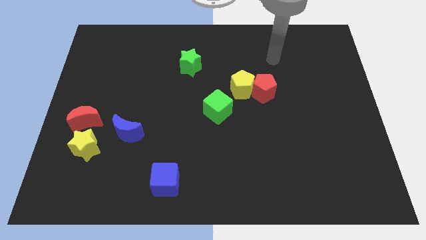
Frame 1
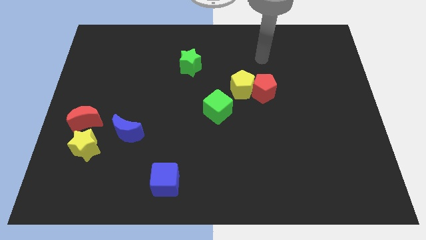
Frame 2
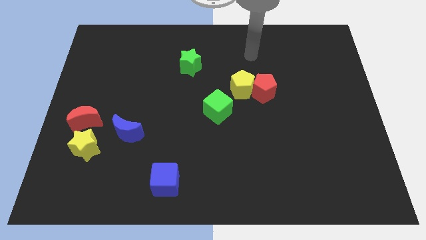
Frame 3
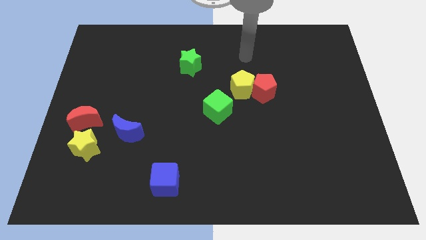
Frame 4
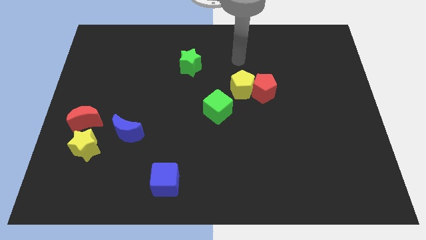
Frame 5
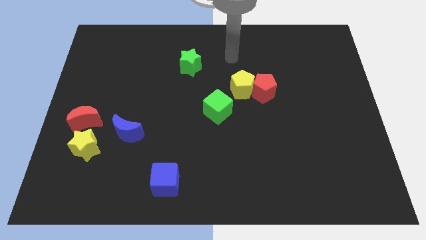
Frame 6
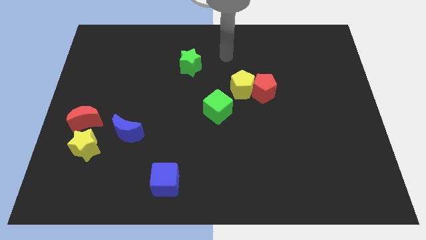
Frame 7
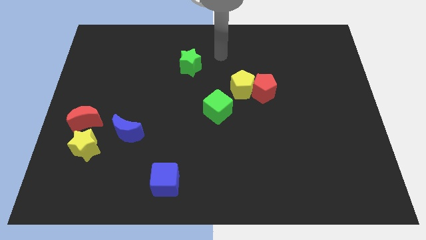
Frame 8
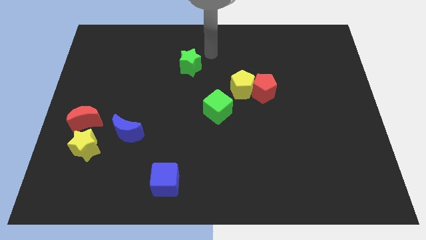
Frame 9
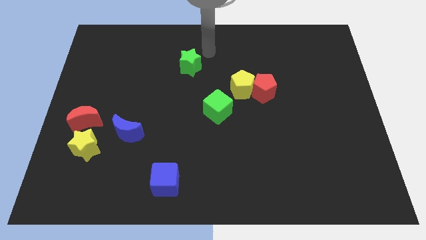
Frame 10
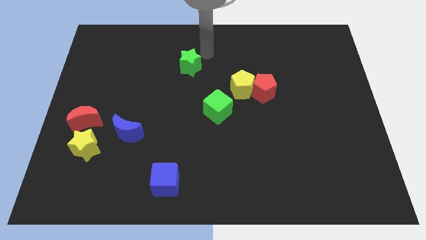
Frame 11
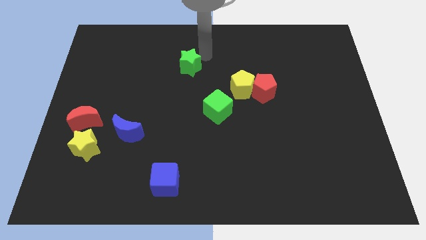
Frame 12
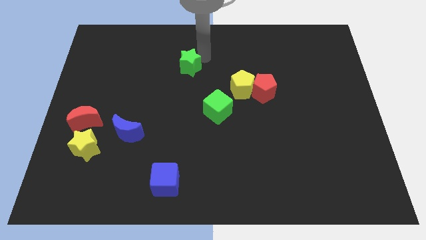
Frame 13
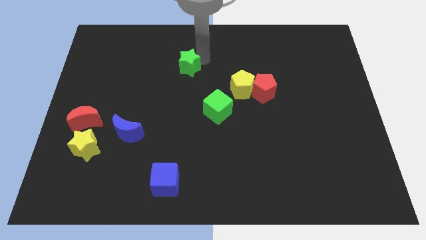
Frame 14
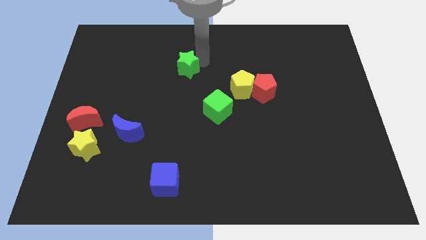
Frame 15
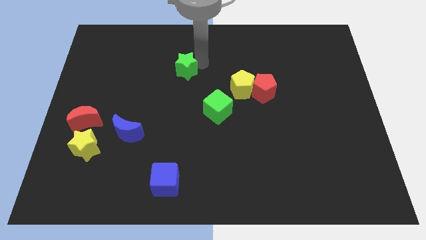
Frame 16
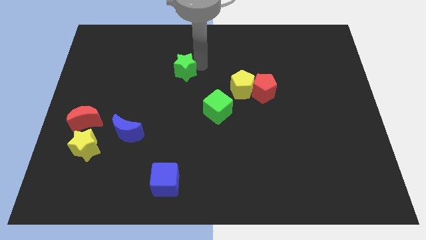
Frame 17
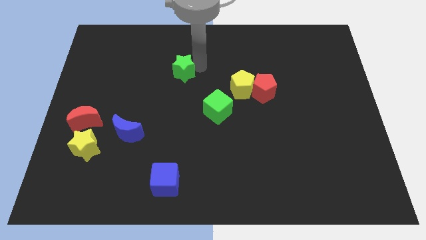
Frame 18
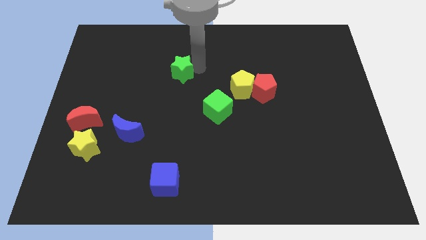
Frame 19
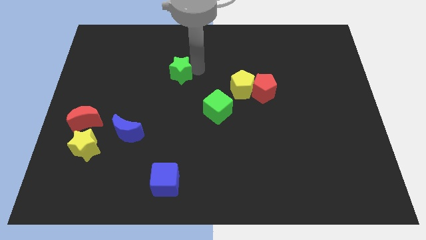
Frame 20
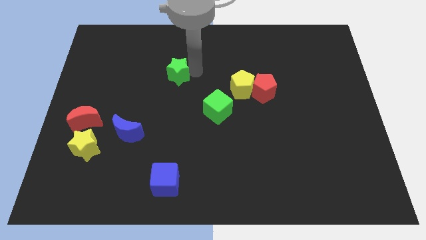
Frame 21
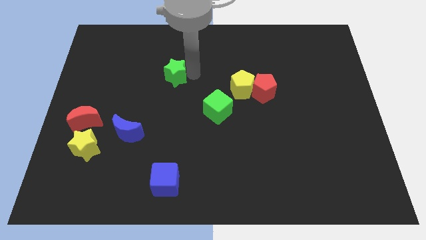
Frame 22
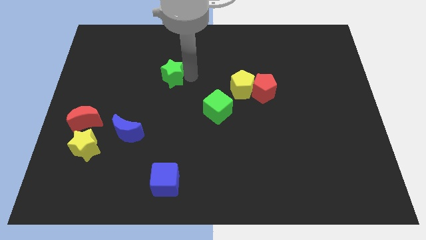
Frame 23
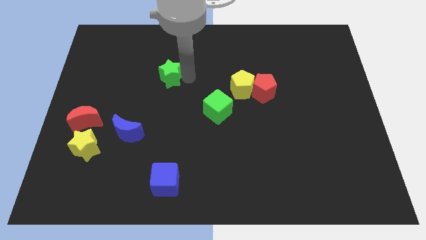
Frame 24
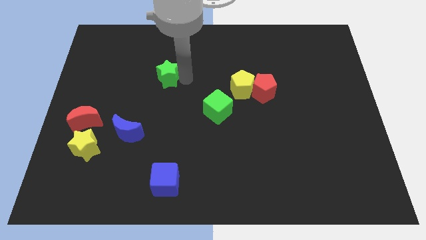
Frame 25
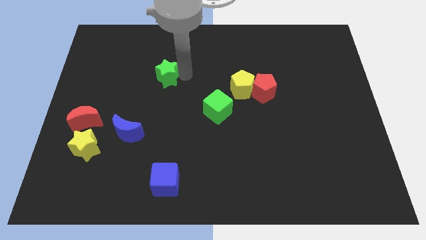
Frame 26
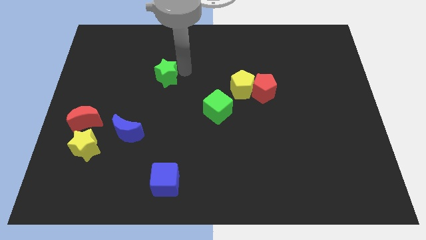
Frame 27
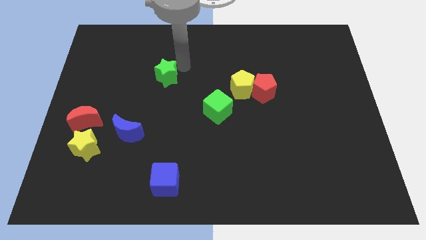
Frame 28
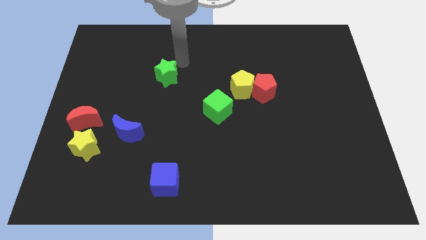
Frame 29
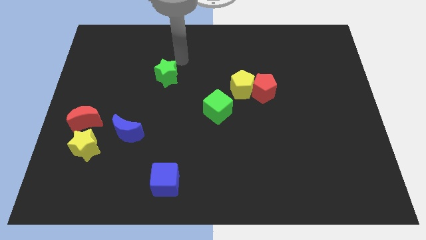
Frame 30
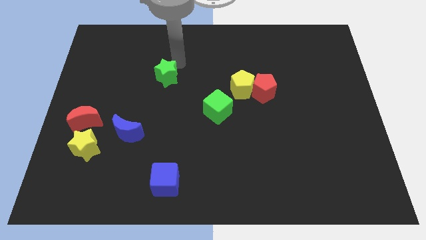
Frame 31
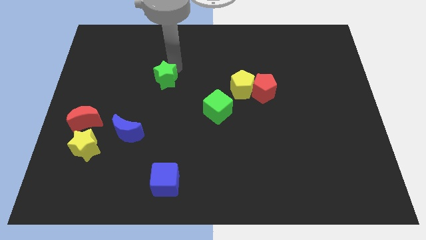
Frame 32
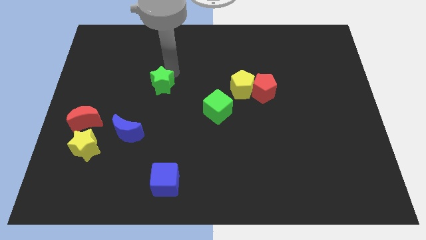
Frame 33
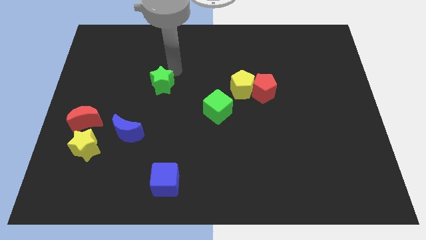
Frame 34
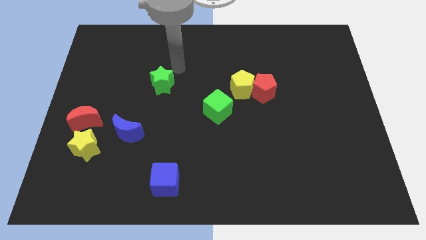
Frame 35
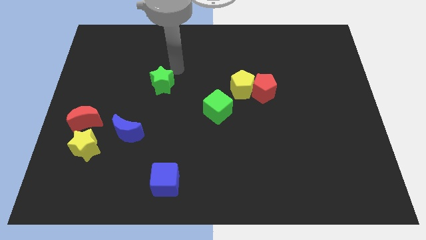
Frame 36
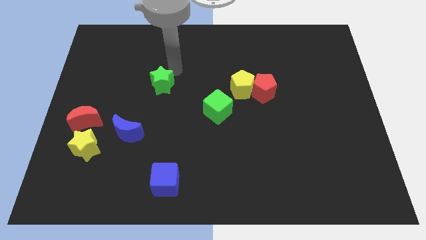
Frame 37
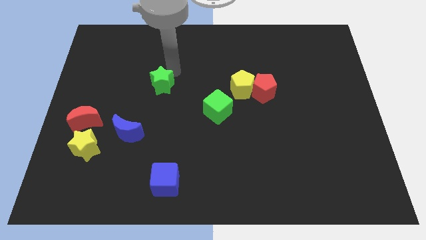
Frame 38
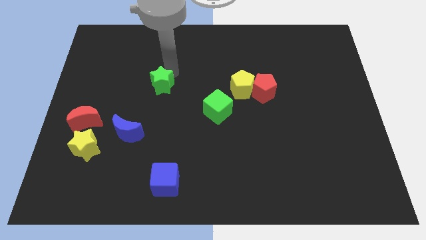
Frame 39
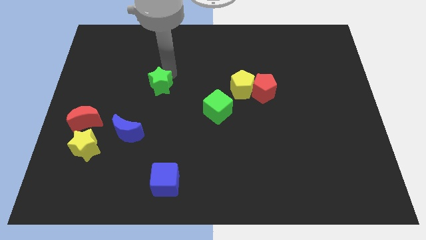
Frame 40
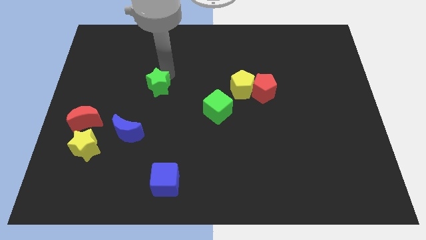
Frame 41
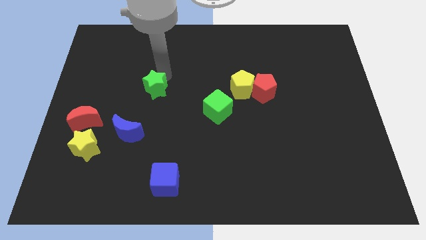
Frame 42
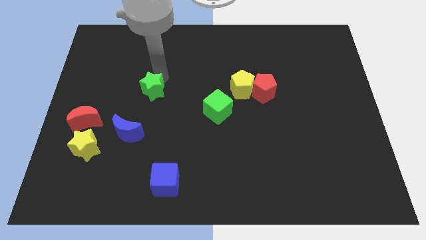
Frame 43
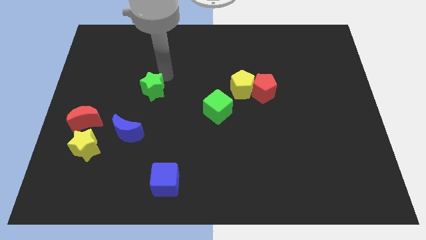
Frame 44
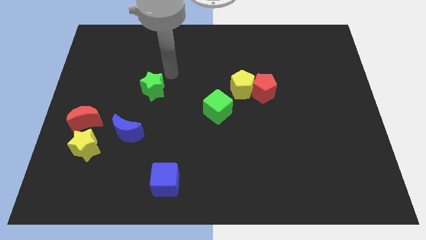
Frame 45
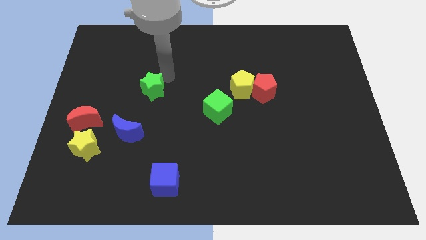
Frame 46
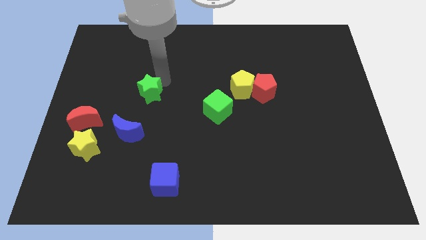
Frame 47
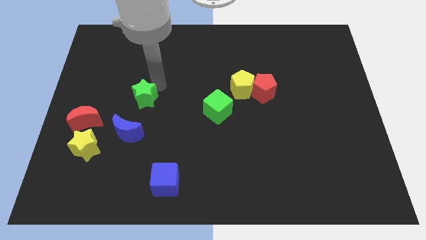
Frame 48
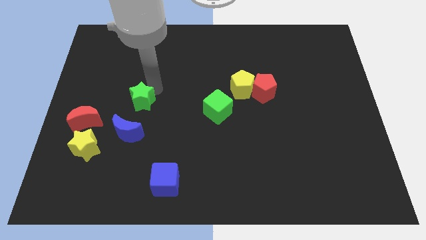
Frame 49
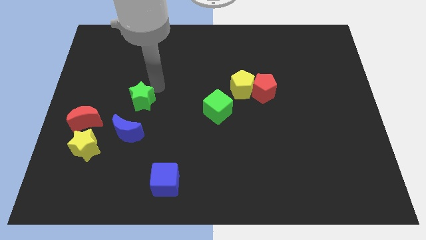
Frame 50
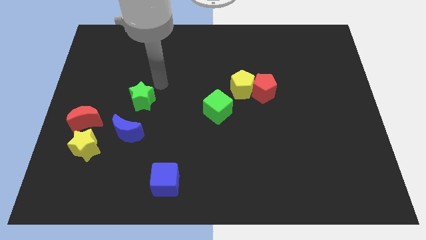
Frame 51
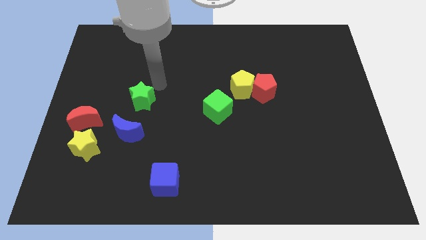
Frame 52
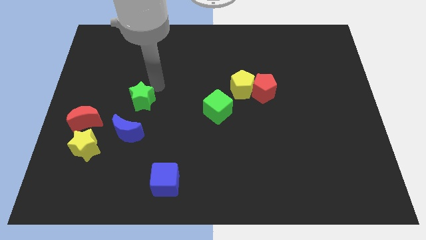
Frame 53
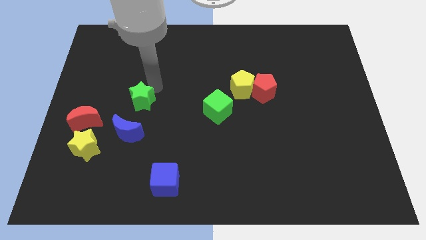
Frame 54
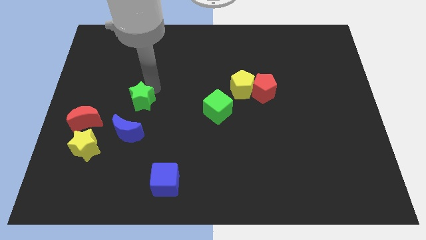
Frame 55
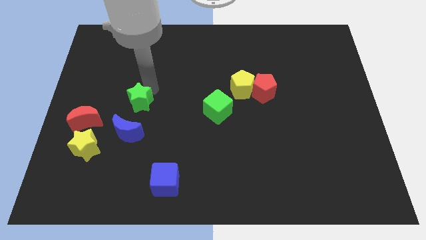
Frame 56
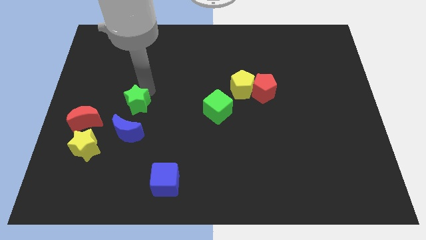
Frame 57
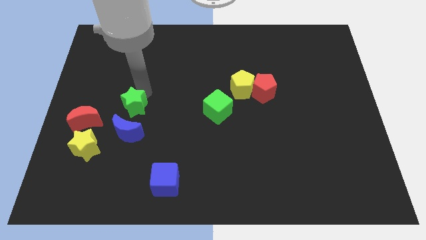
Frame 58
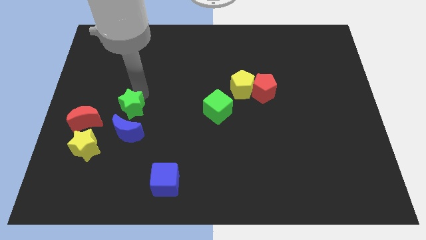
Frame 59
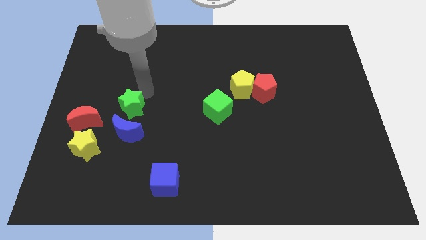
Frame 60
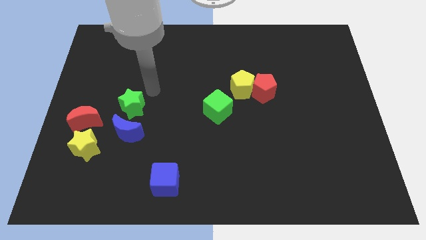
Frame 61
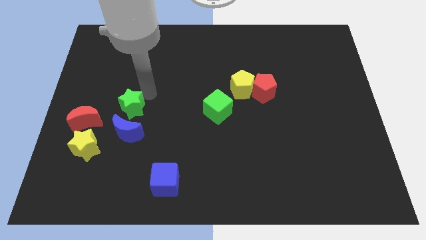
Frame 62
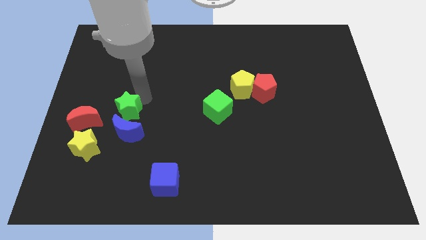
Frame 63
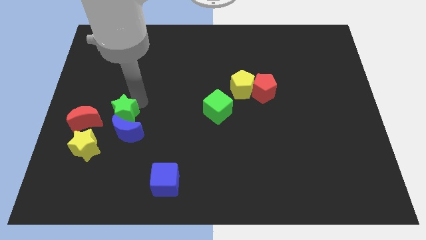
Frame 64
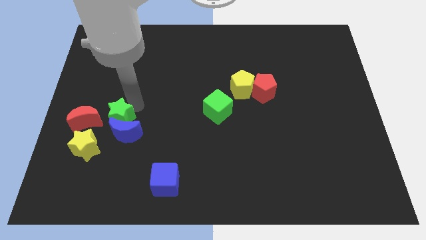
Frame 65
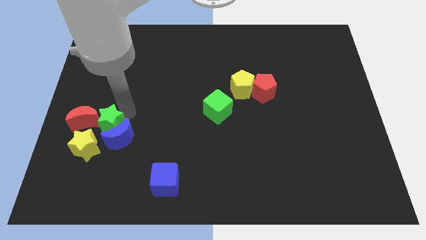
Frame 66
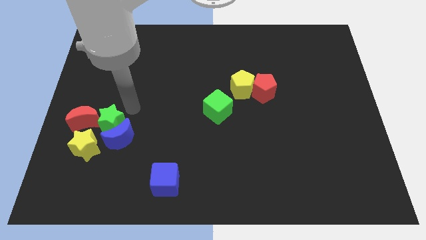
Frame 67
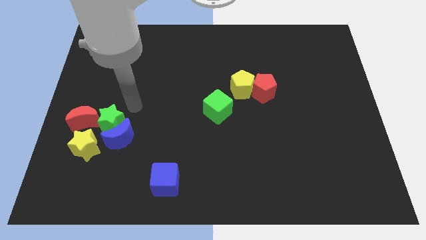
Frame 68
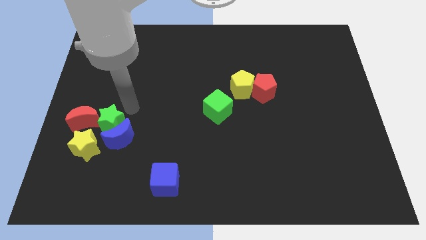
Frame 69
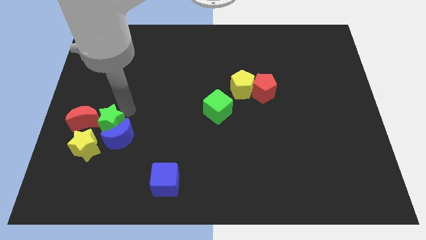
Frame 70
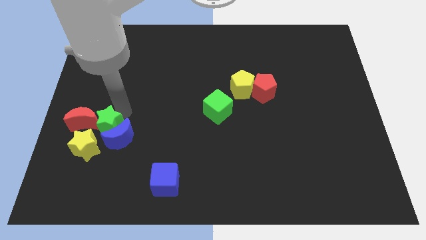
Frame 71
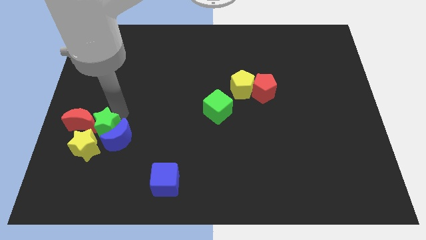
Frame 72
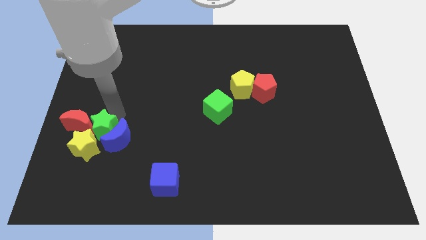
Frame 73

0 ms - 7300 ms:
push the green star towards the yellow star

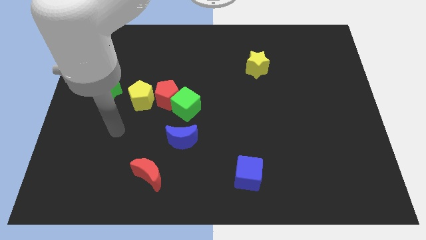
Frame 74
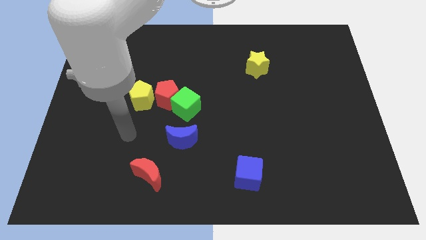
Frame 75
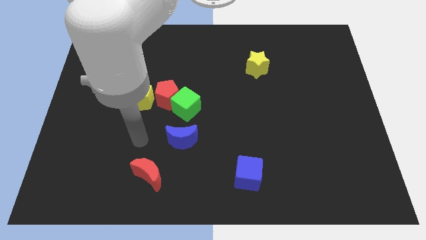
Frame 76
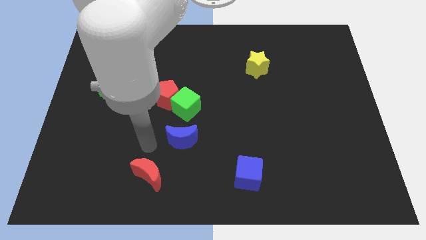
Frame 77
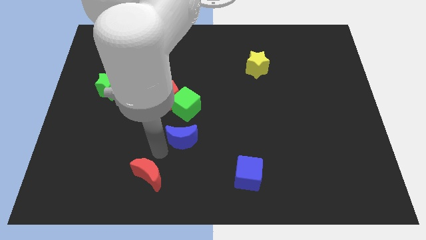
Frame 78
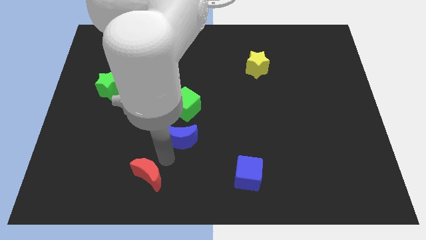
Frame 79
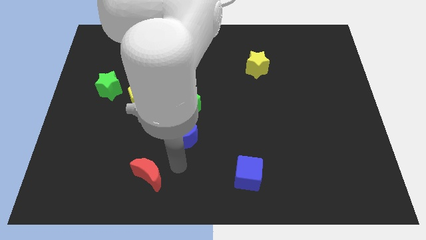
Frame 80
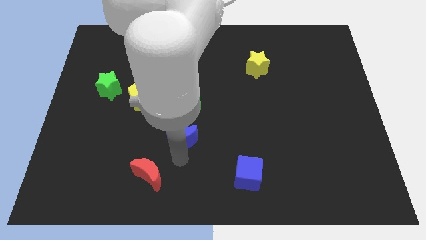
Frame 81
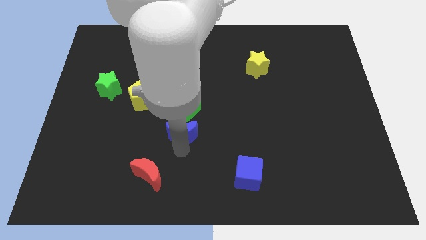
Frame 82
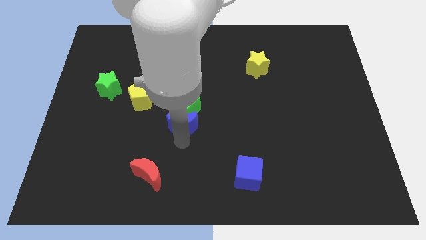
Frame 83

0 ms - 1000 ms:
slide the blue moon towards the green cube
